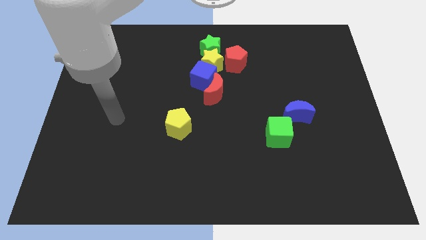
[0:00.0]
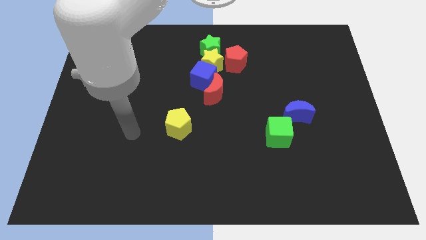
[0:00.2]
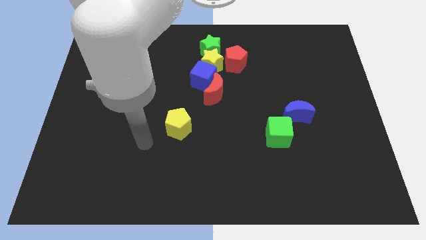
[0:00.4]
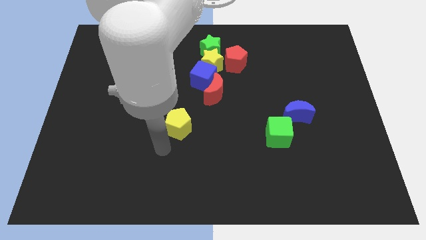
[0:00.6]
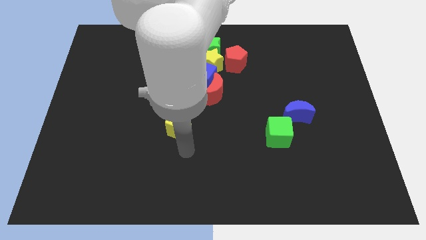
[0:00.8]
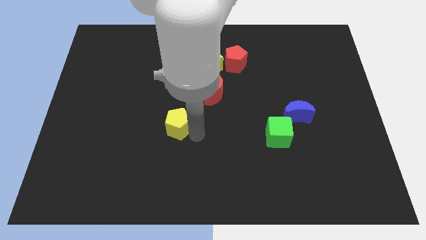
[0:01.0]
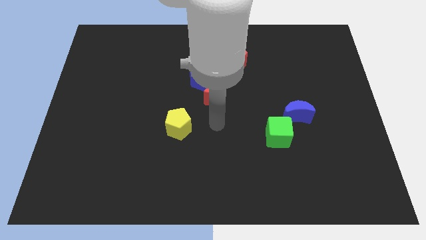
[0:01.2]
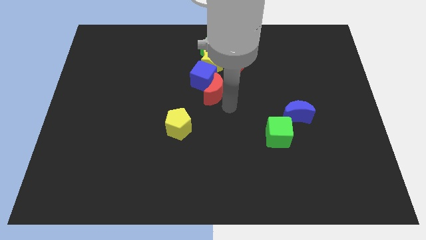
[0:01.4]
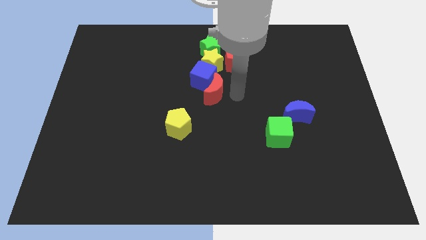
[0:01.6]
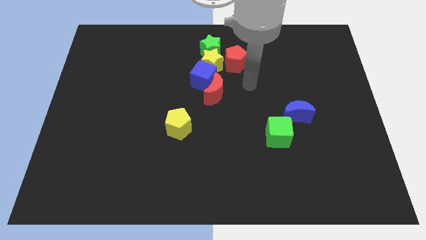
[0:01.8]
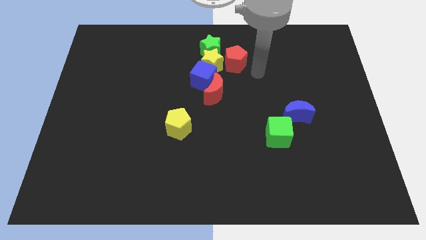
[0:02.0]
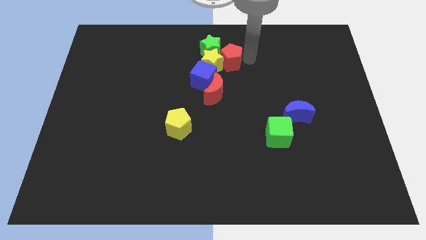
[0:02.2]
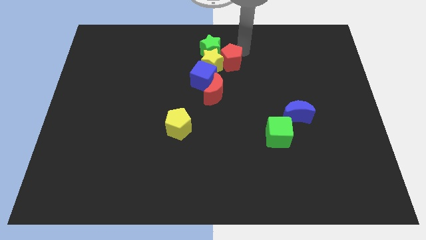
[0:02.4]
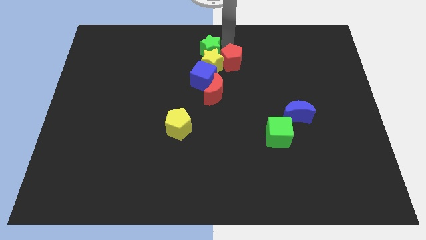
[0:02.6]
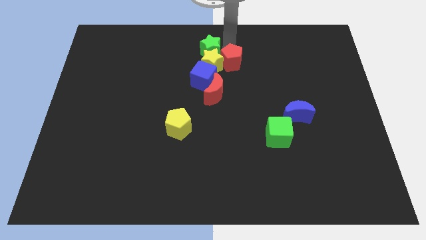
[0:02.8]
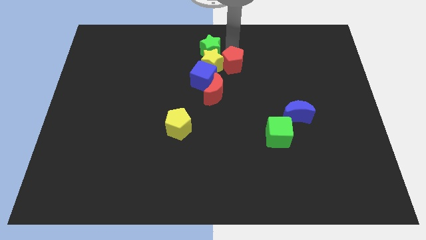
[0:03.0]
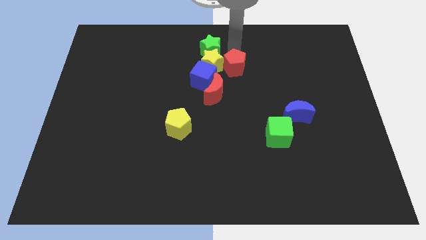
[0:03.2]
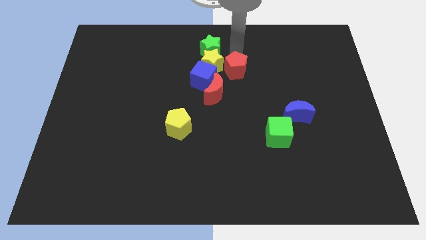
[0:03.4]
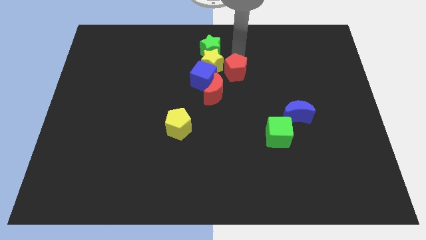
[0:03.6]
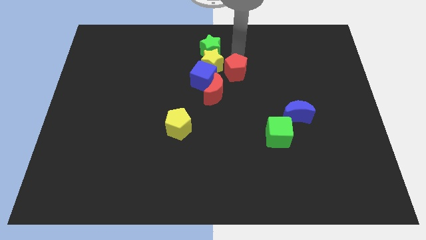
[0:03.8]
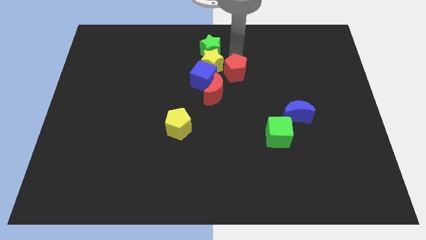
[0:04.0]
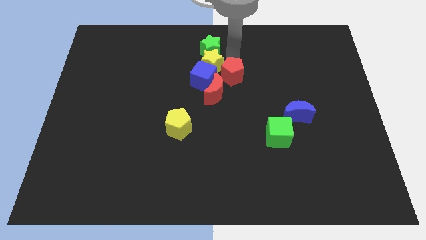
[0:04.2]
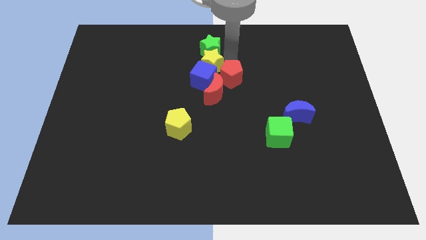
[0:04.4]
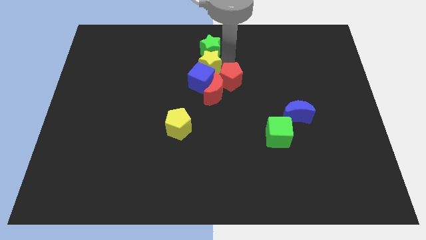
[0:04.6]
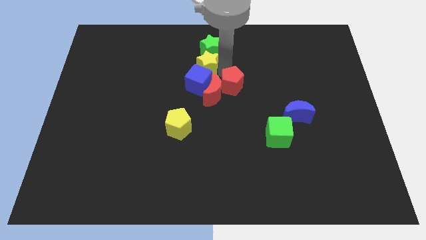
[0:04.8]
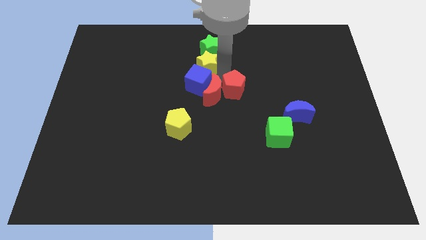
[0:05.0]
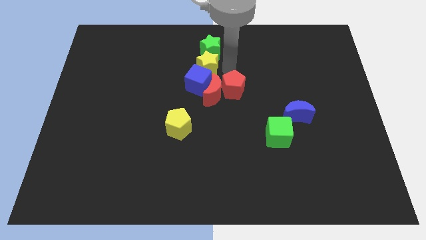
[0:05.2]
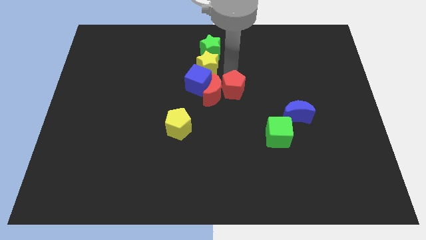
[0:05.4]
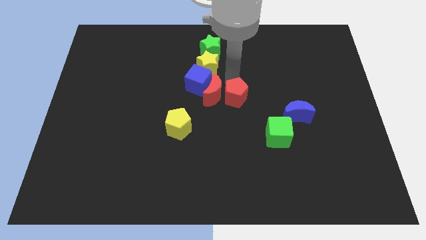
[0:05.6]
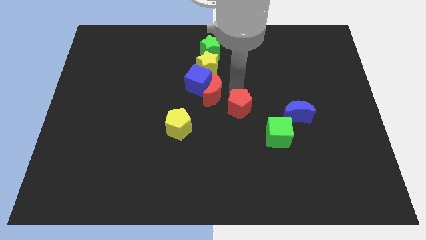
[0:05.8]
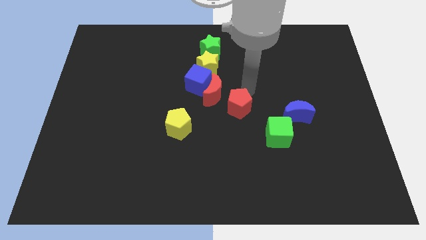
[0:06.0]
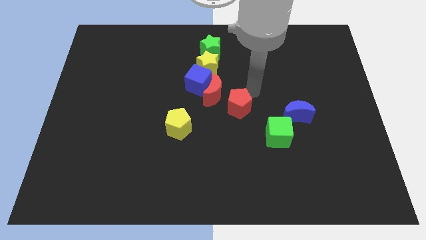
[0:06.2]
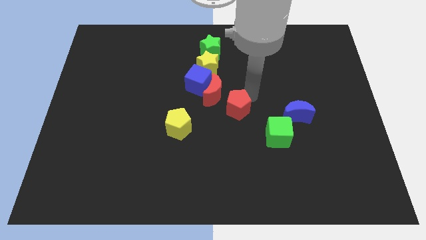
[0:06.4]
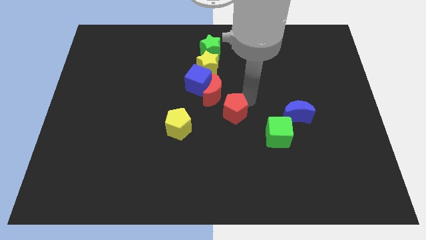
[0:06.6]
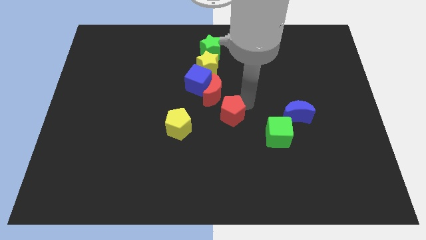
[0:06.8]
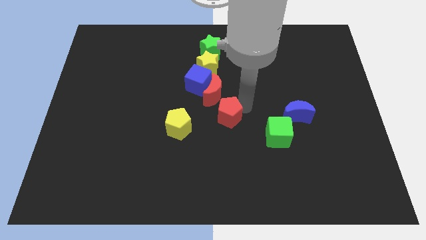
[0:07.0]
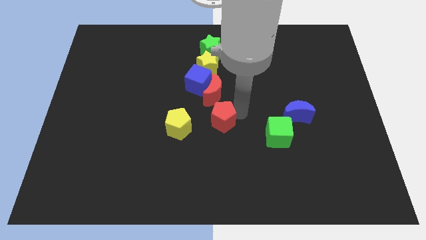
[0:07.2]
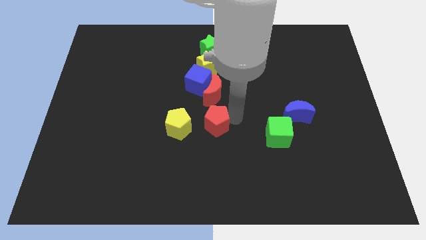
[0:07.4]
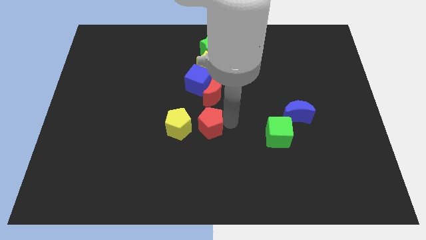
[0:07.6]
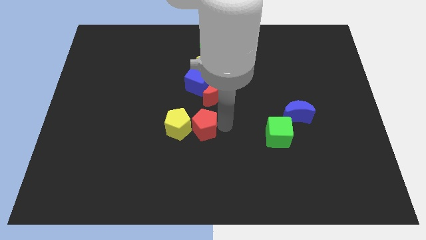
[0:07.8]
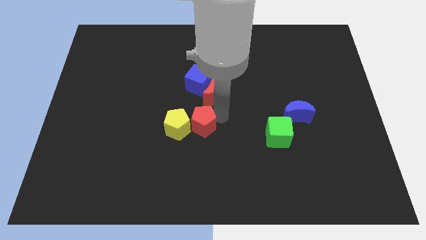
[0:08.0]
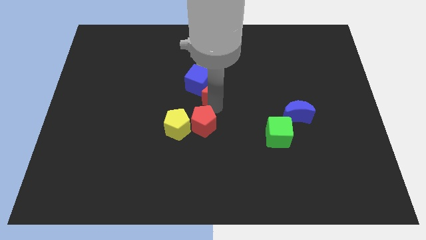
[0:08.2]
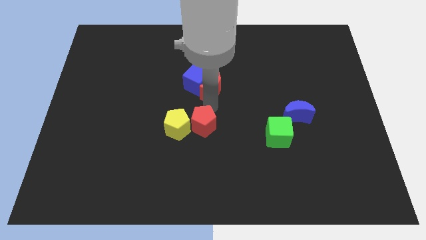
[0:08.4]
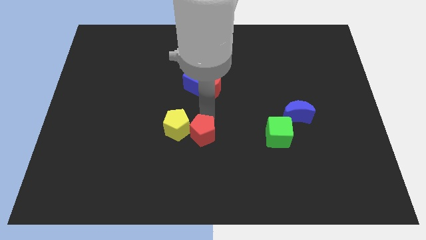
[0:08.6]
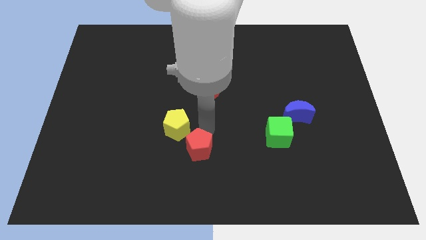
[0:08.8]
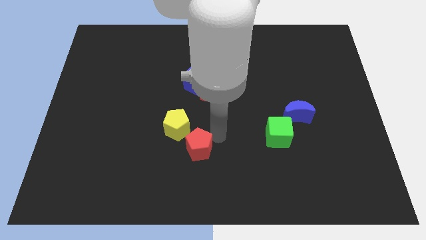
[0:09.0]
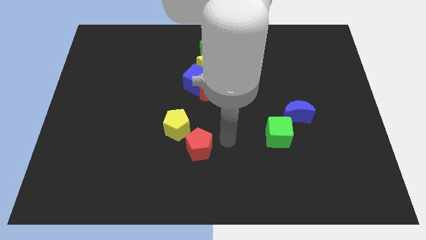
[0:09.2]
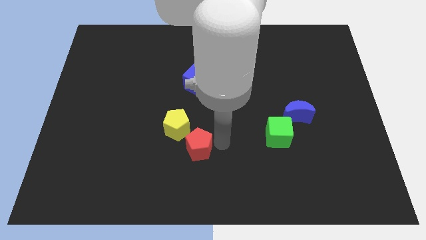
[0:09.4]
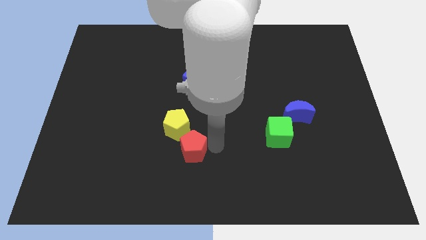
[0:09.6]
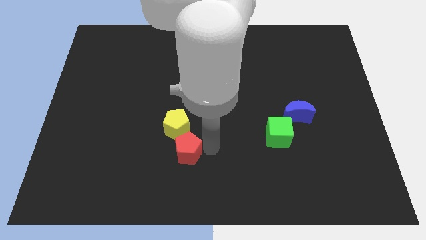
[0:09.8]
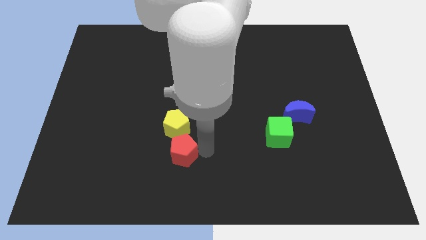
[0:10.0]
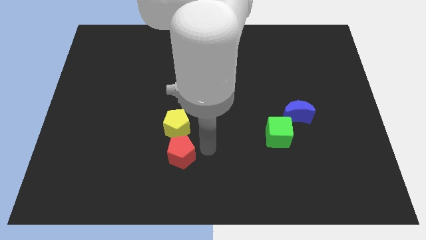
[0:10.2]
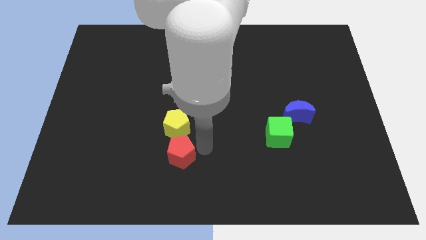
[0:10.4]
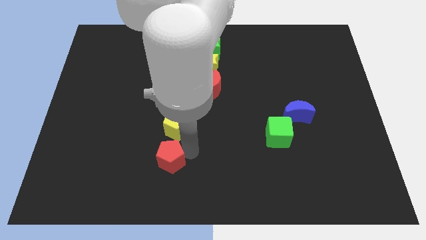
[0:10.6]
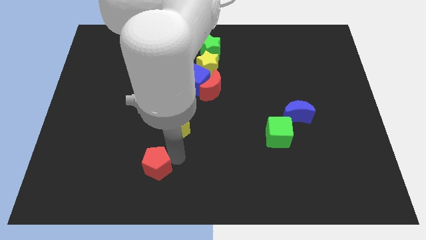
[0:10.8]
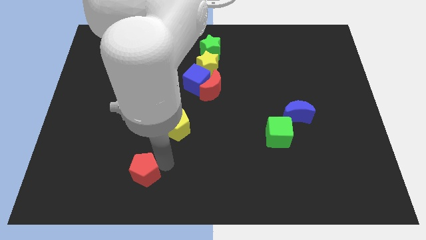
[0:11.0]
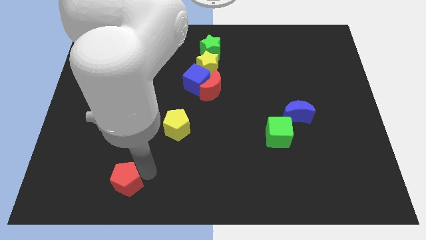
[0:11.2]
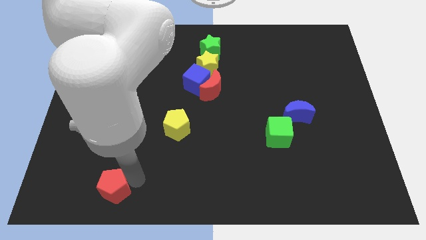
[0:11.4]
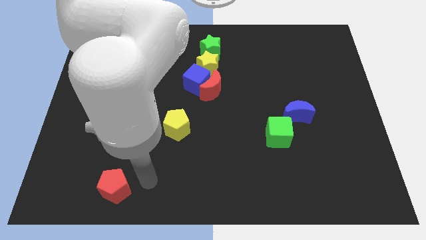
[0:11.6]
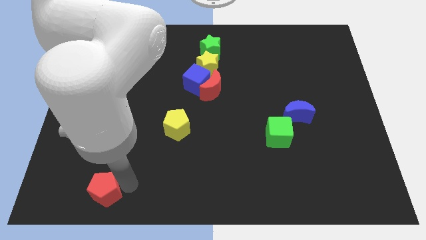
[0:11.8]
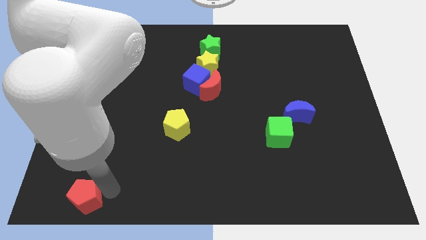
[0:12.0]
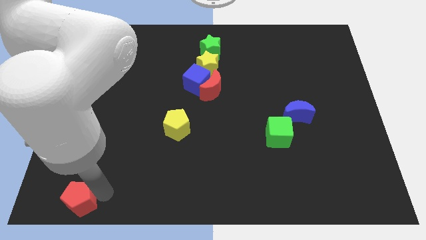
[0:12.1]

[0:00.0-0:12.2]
move the red pentagon to the lower left corner
